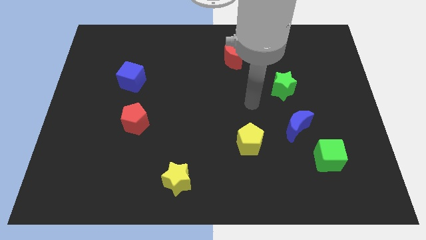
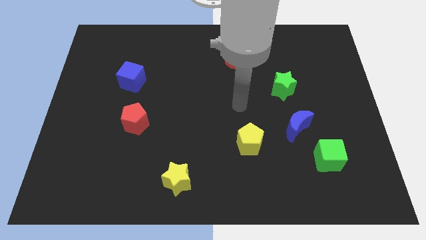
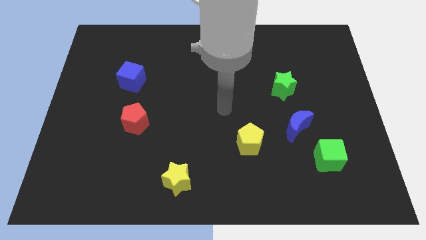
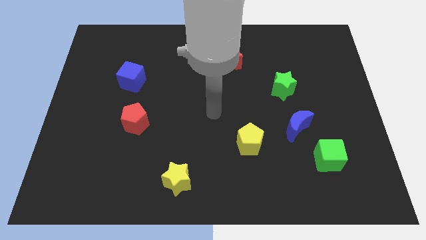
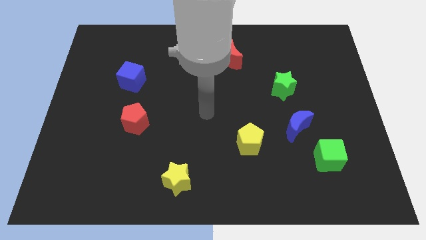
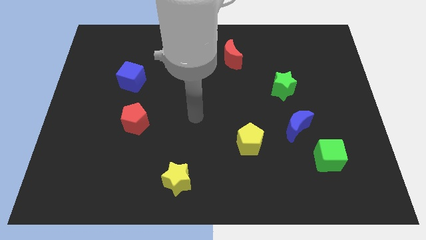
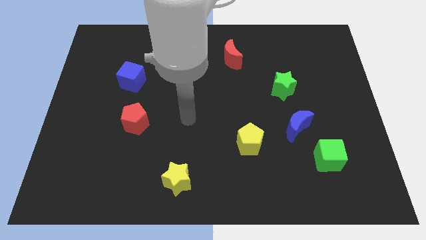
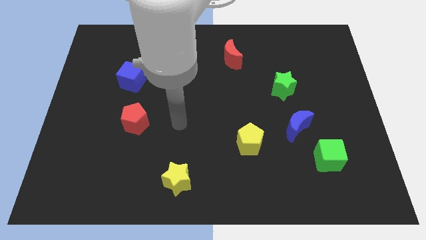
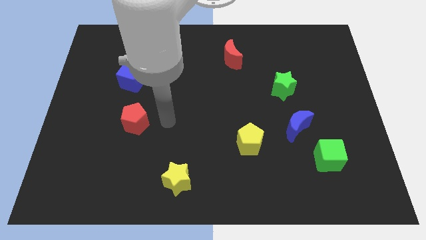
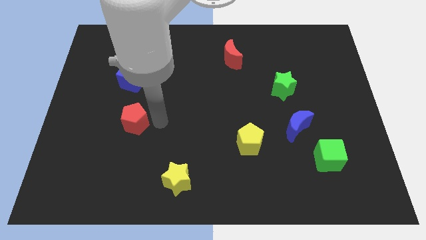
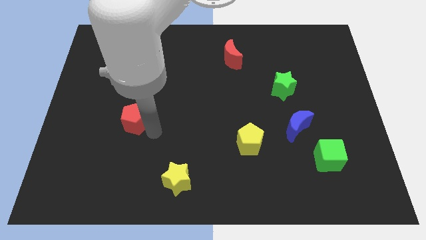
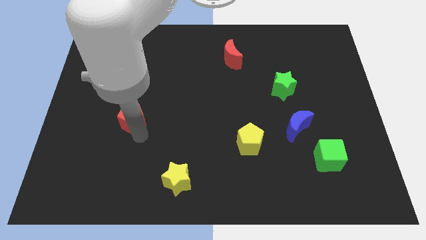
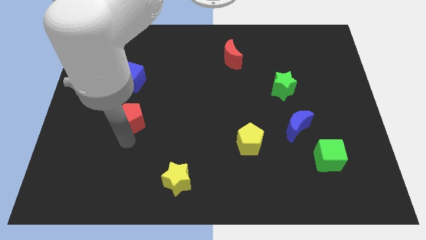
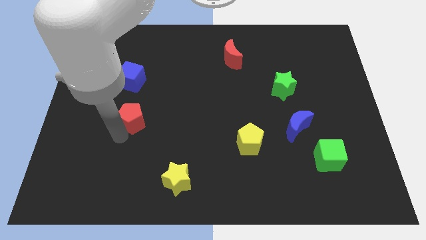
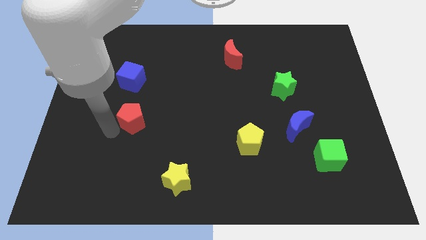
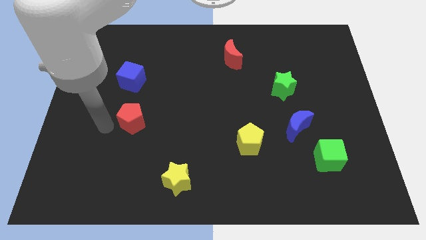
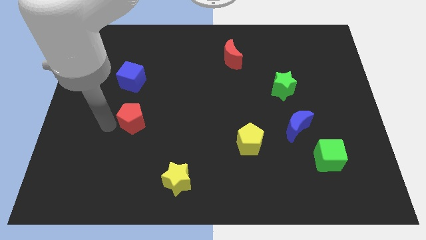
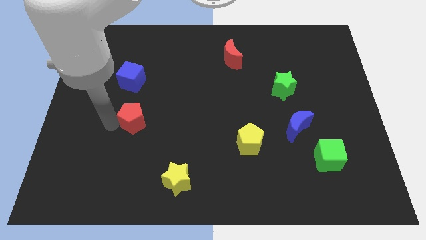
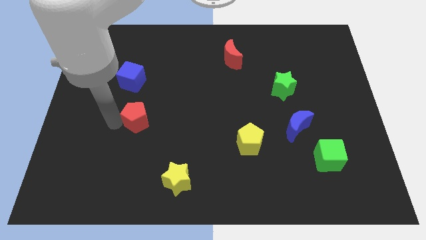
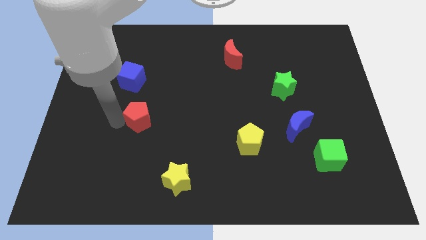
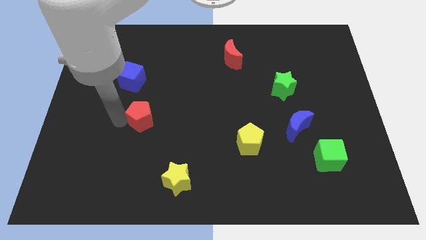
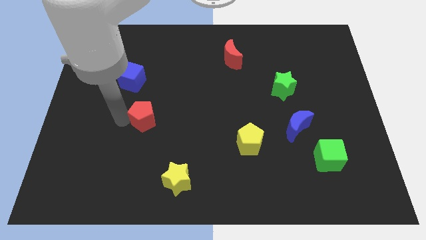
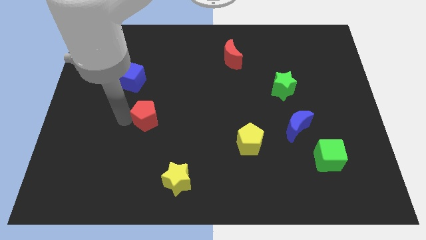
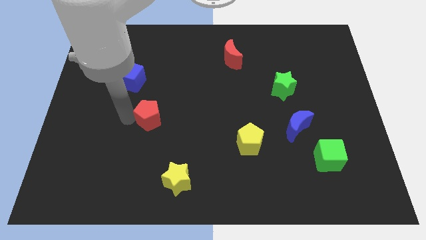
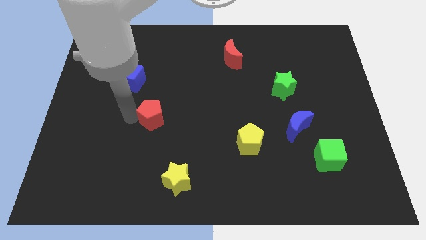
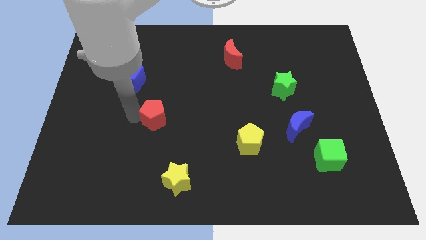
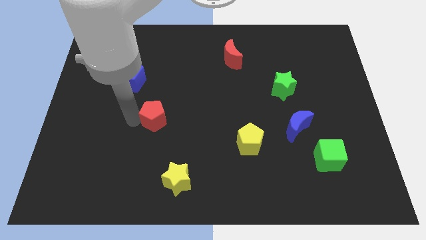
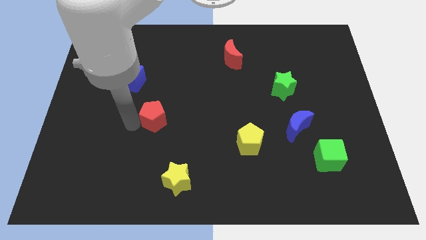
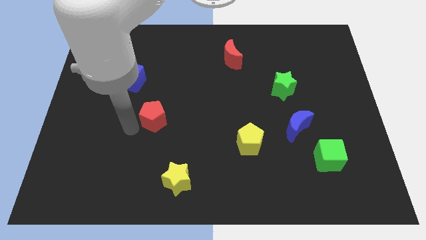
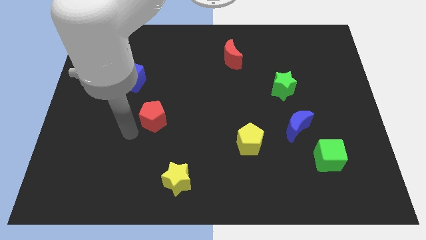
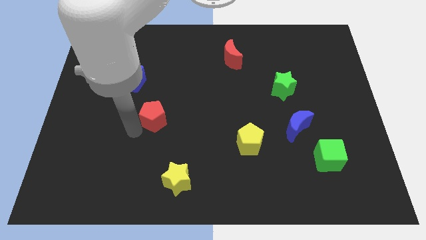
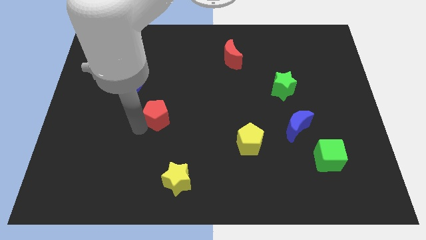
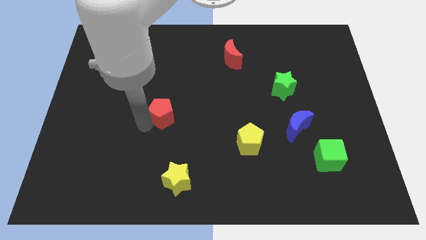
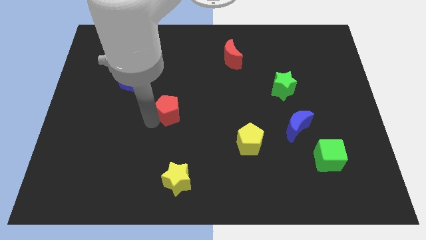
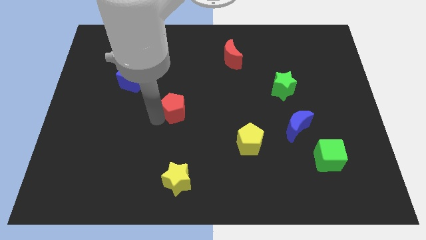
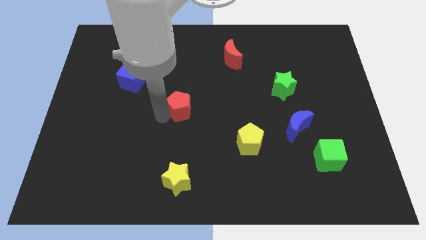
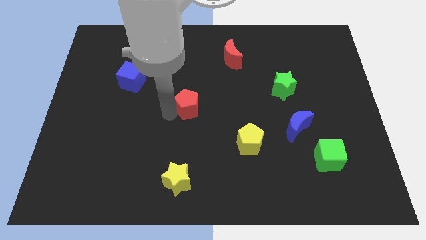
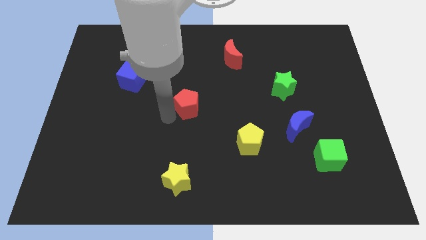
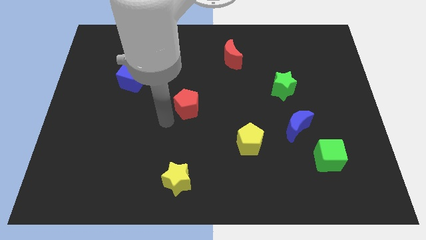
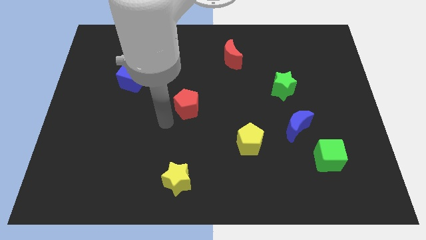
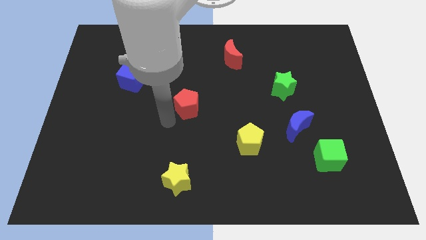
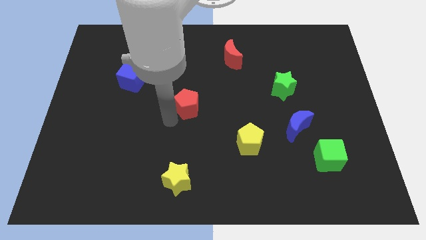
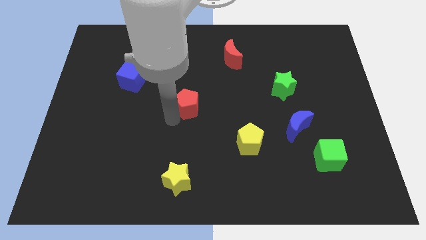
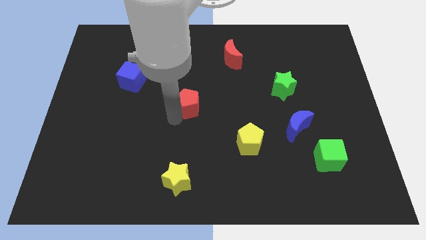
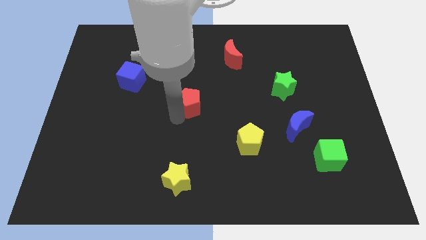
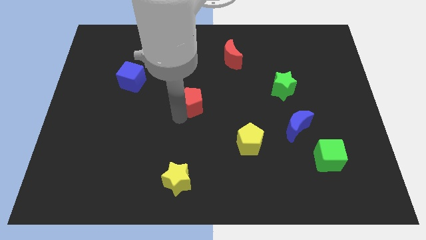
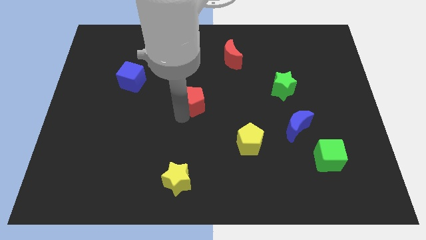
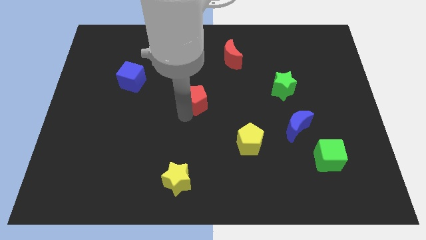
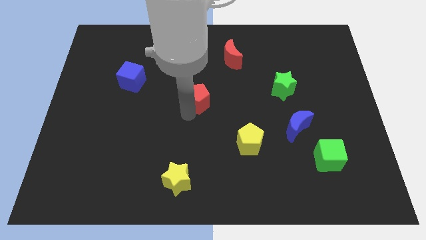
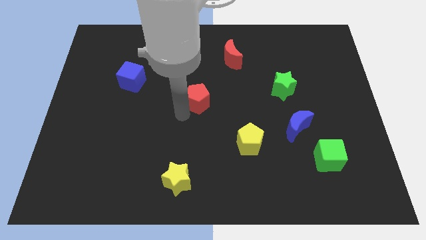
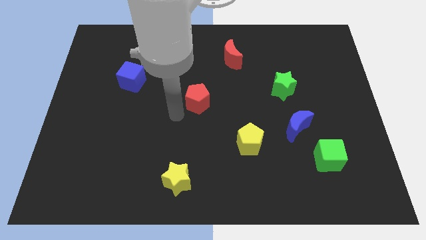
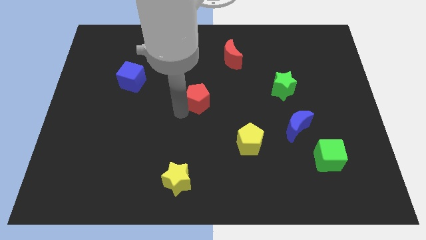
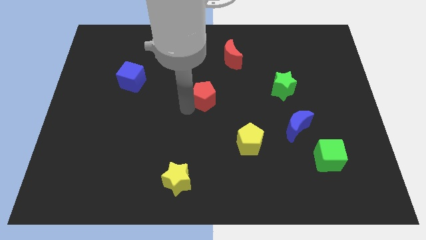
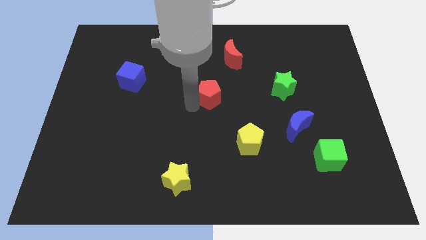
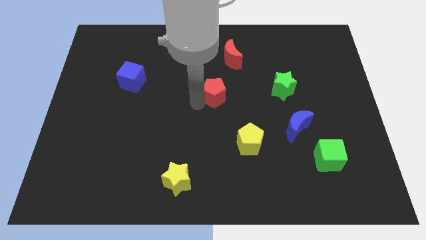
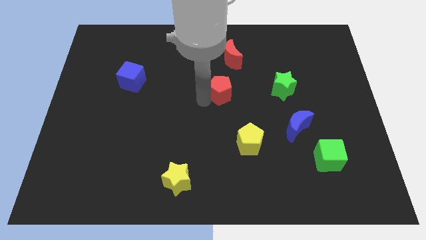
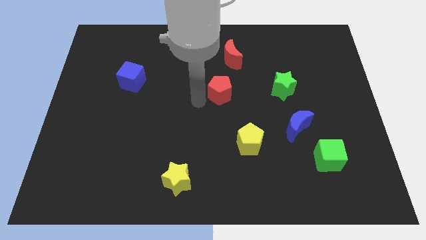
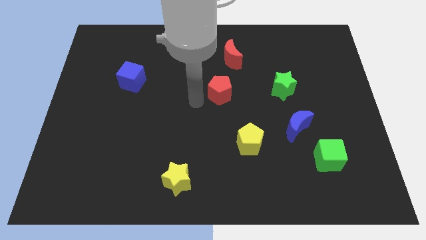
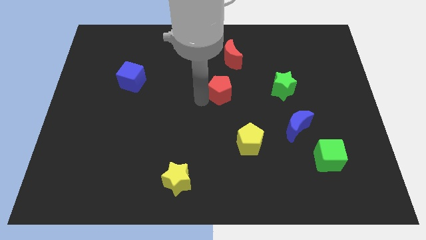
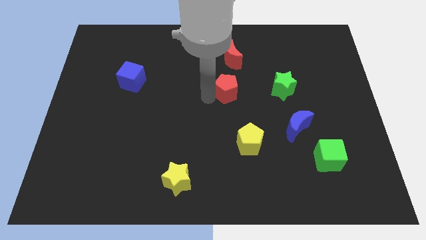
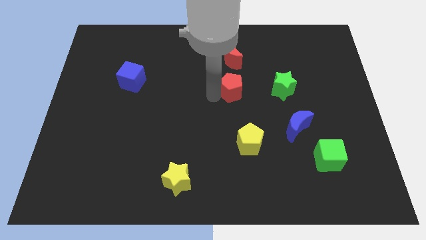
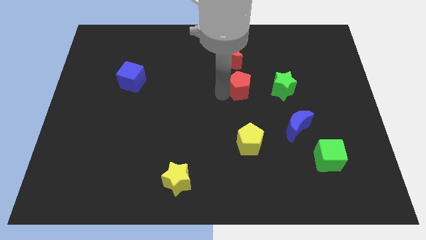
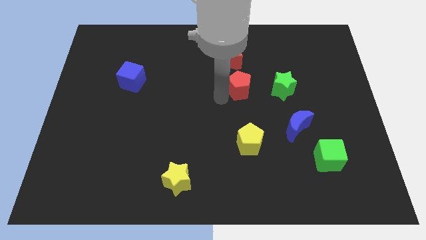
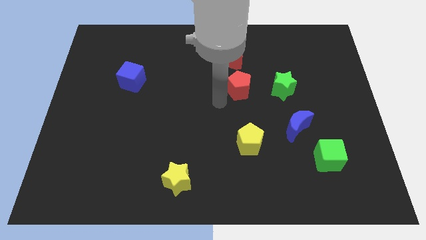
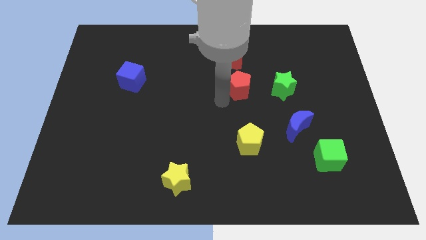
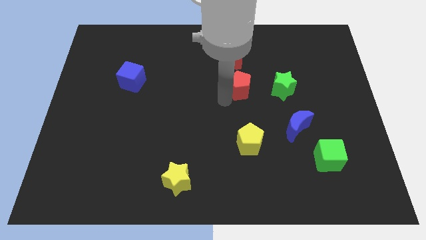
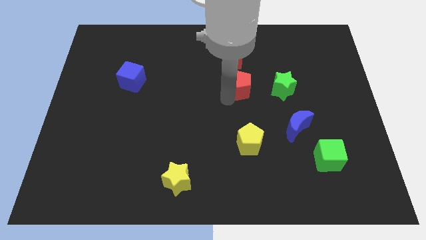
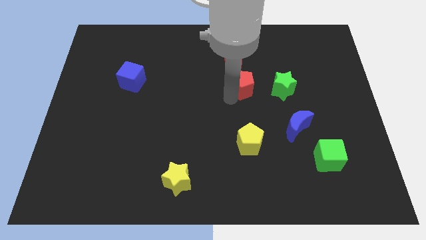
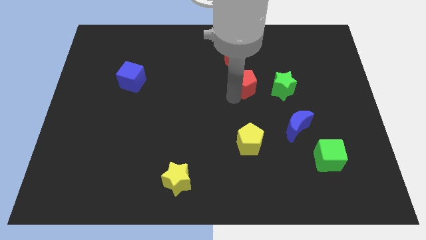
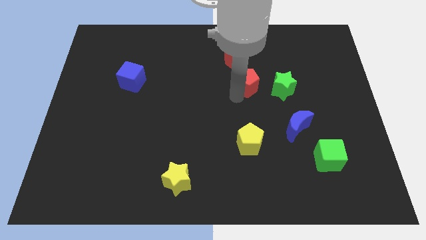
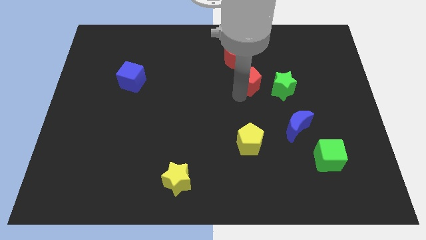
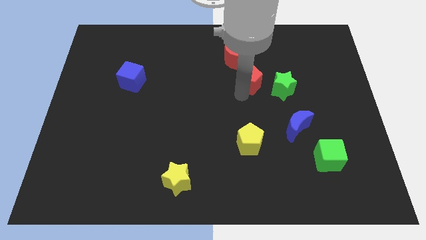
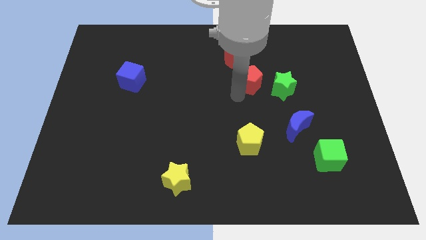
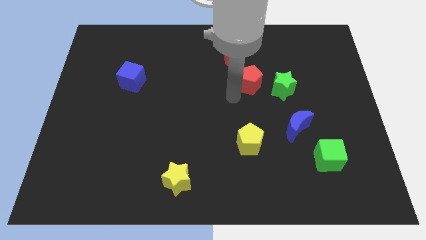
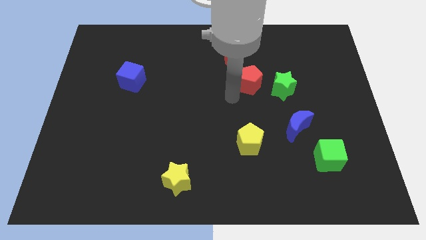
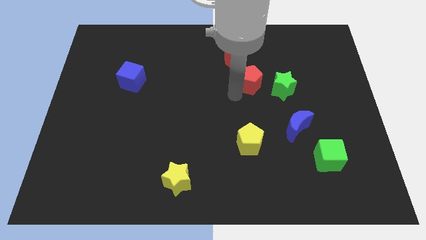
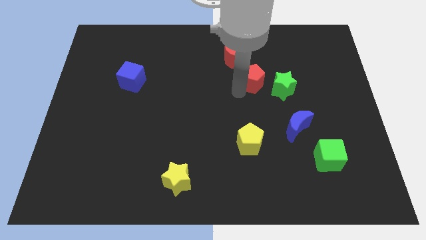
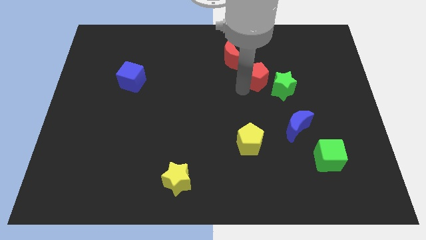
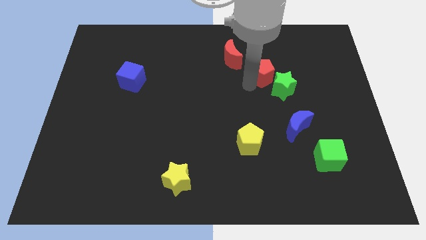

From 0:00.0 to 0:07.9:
move the red pentagon to the top side of the green star
